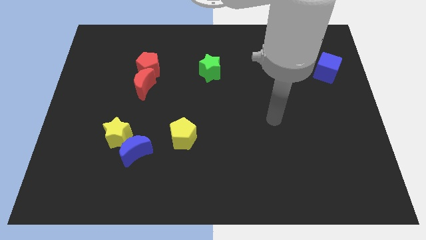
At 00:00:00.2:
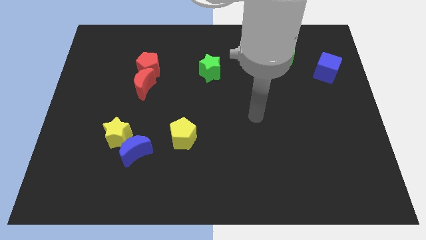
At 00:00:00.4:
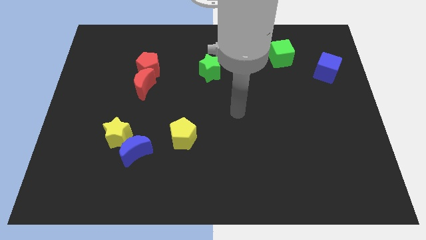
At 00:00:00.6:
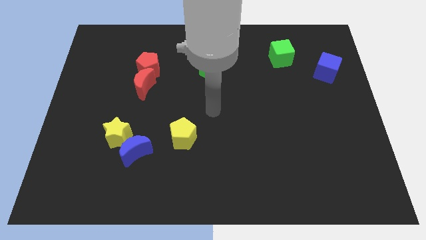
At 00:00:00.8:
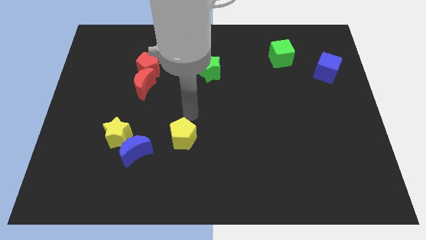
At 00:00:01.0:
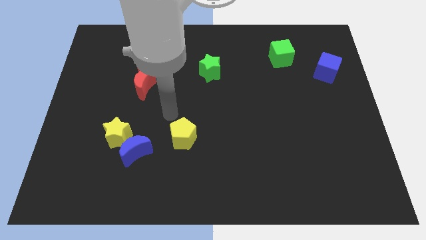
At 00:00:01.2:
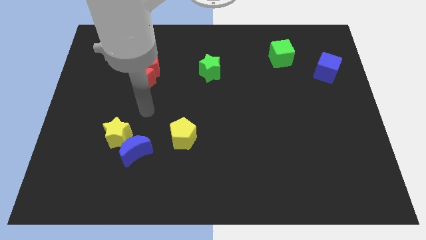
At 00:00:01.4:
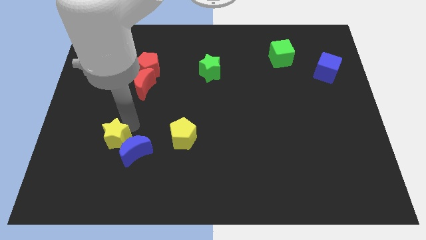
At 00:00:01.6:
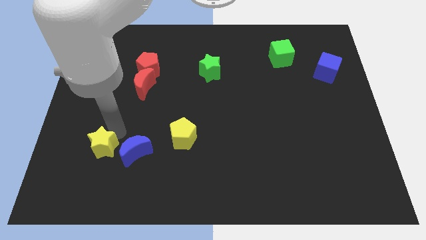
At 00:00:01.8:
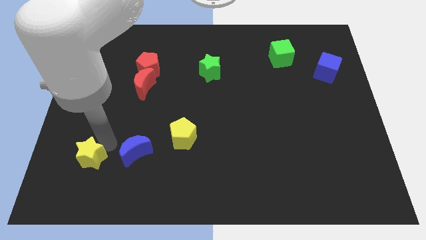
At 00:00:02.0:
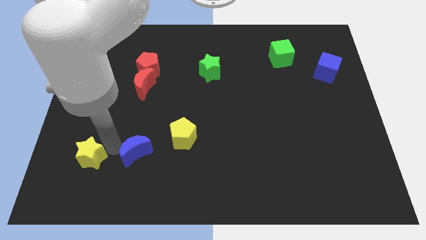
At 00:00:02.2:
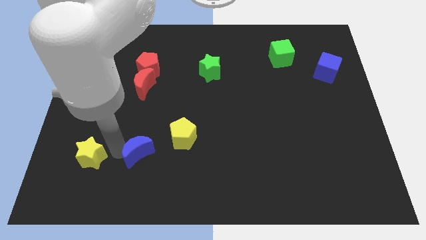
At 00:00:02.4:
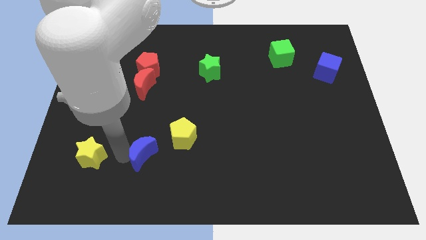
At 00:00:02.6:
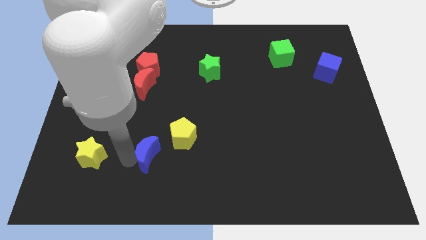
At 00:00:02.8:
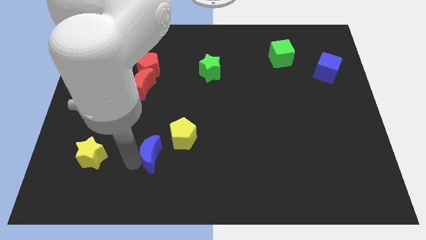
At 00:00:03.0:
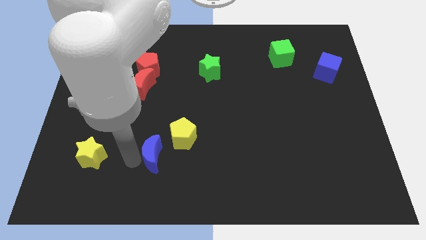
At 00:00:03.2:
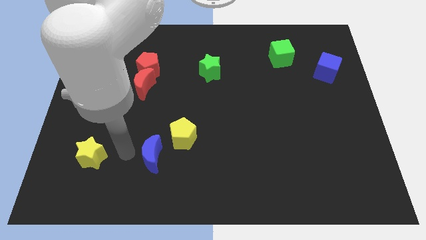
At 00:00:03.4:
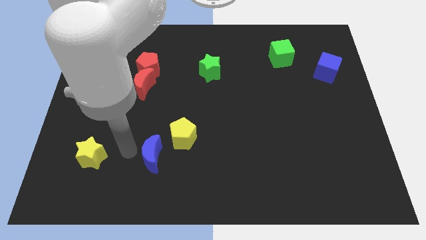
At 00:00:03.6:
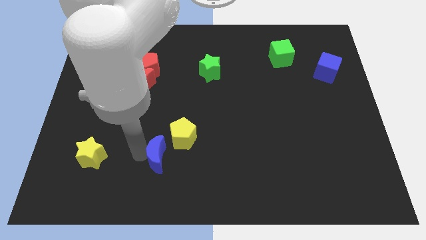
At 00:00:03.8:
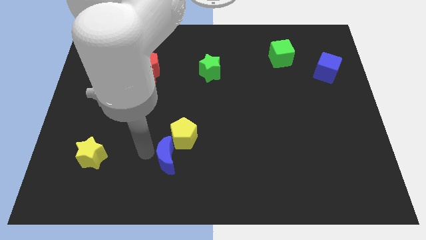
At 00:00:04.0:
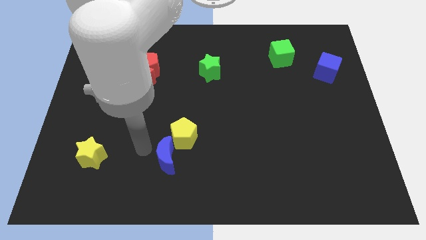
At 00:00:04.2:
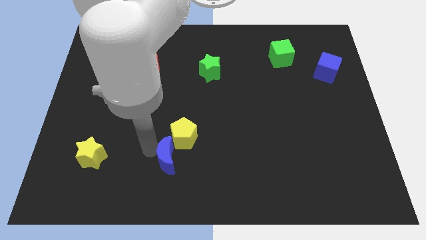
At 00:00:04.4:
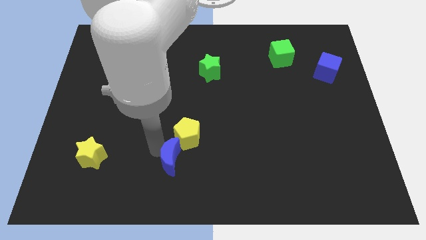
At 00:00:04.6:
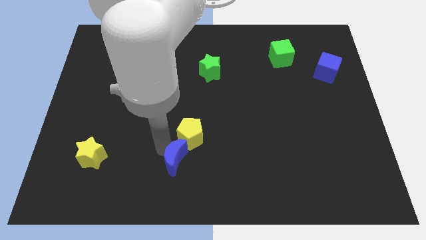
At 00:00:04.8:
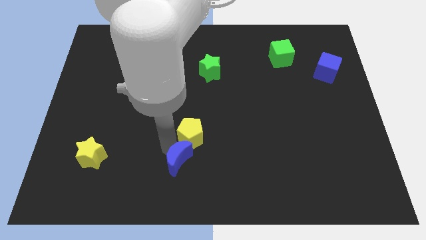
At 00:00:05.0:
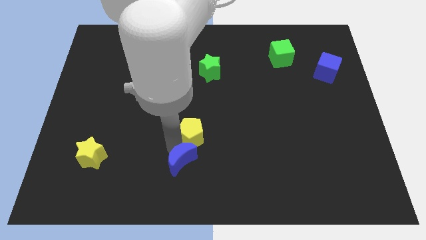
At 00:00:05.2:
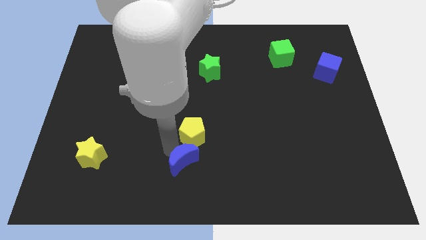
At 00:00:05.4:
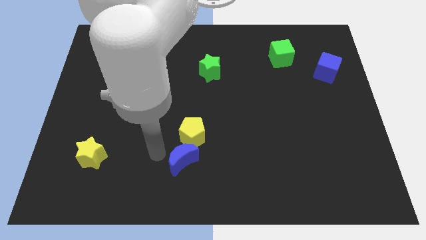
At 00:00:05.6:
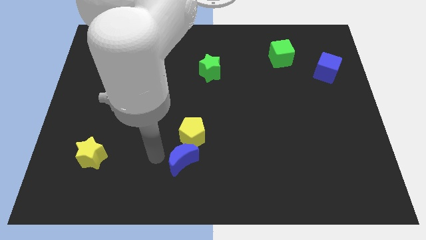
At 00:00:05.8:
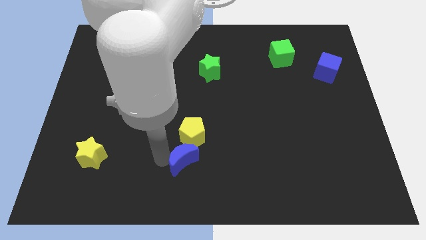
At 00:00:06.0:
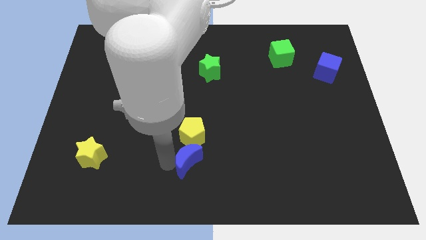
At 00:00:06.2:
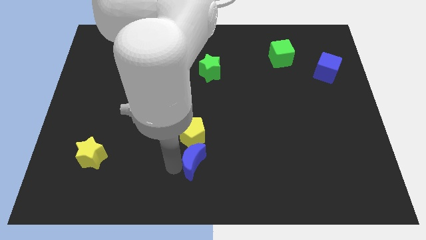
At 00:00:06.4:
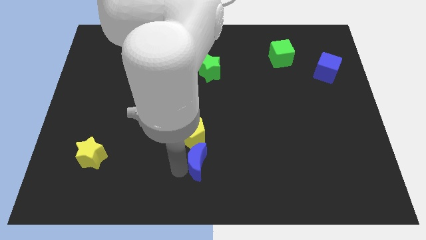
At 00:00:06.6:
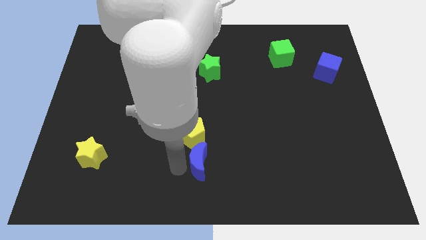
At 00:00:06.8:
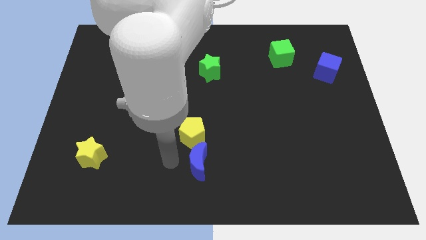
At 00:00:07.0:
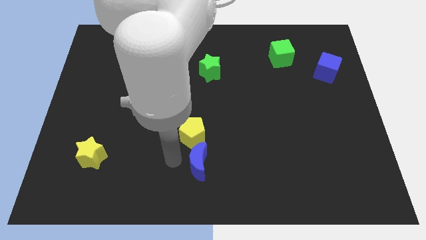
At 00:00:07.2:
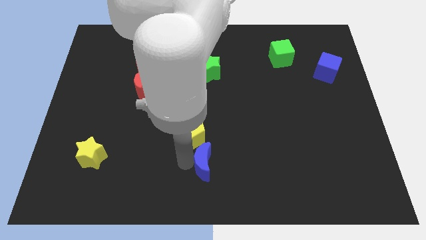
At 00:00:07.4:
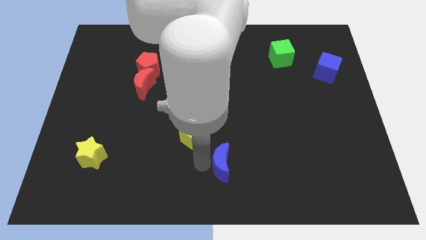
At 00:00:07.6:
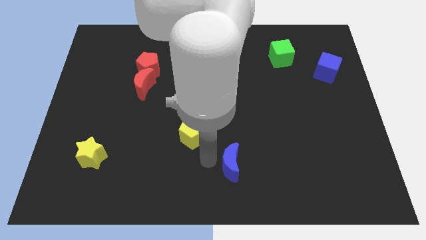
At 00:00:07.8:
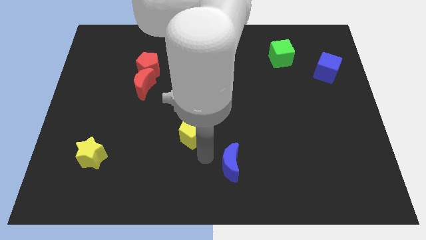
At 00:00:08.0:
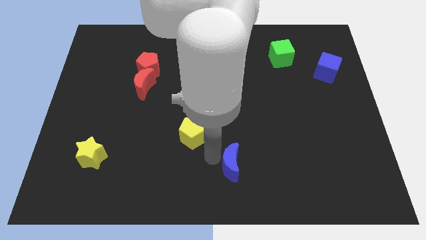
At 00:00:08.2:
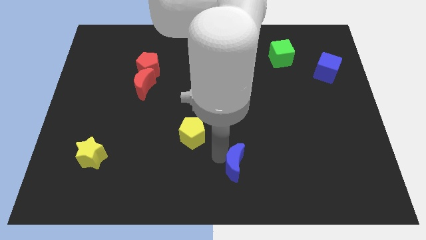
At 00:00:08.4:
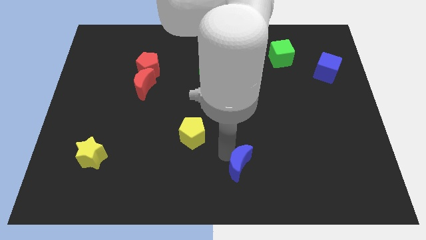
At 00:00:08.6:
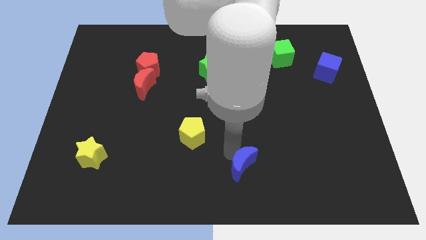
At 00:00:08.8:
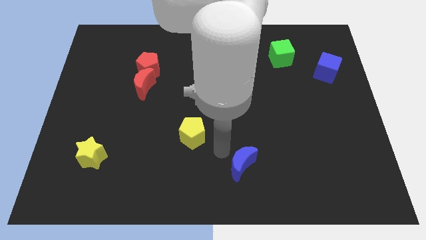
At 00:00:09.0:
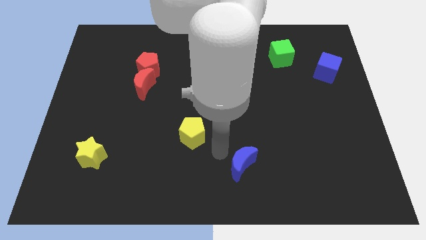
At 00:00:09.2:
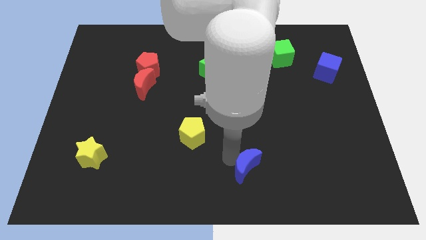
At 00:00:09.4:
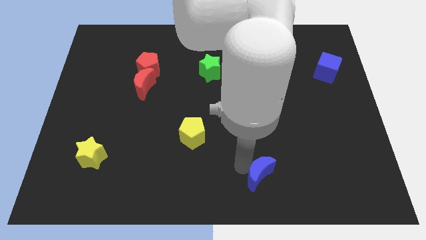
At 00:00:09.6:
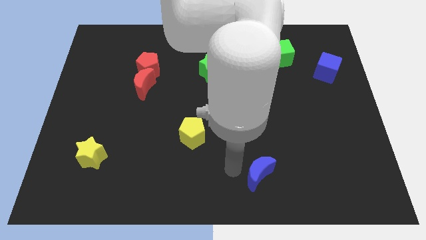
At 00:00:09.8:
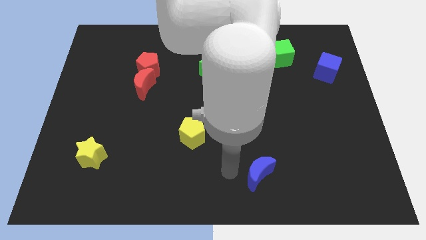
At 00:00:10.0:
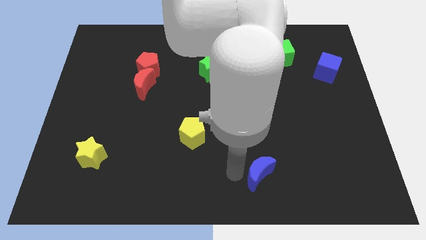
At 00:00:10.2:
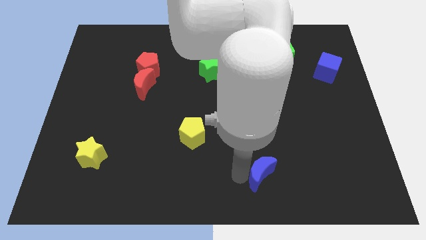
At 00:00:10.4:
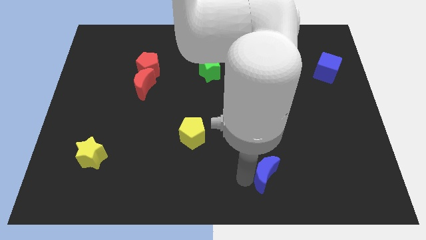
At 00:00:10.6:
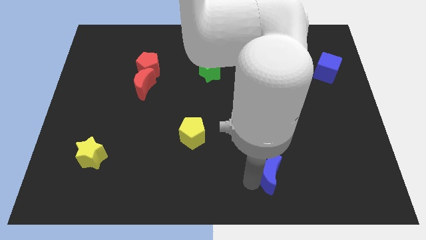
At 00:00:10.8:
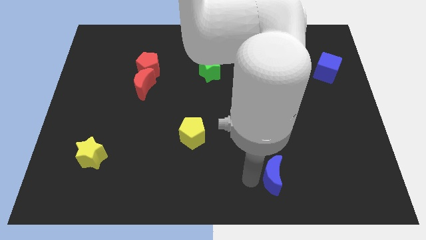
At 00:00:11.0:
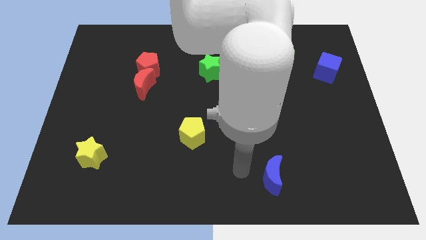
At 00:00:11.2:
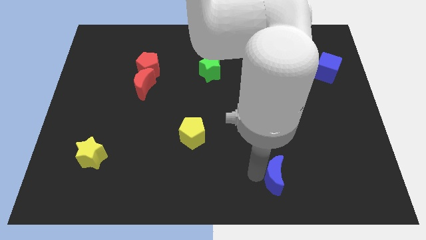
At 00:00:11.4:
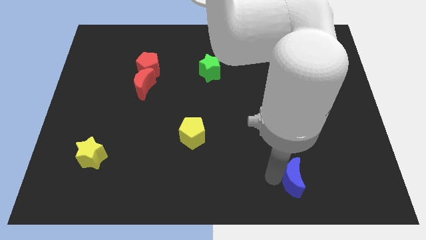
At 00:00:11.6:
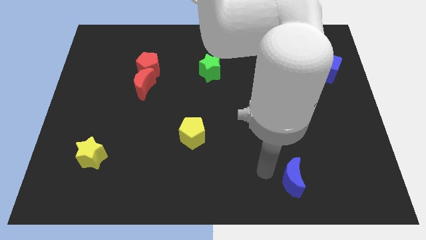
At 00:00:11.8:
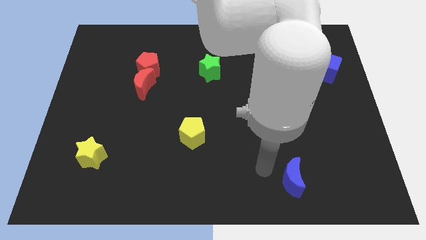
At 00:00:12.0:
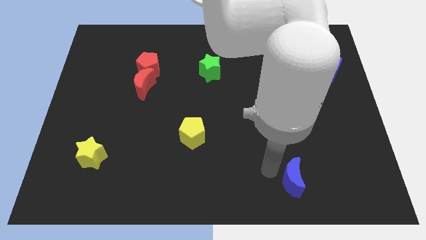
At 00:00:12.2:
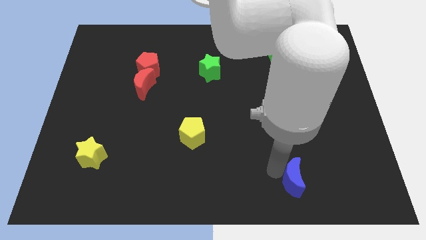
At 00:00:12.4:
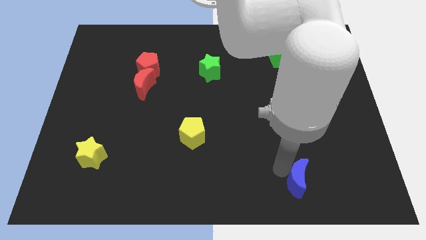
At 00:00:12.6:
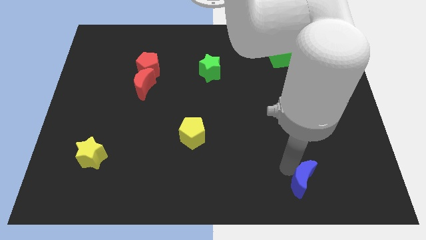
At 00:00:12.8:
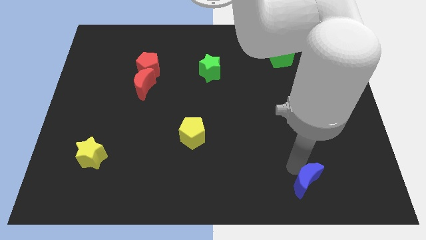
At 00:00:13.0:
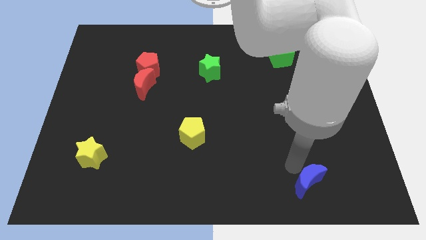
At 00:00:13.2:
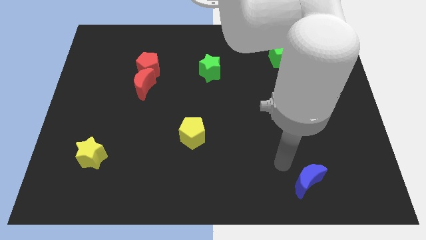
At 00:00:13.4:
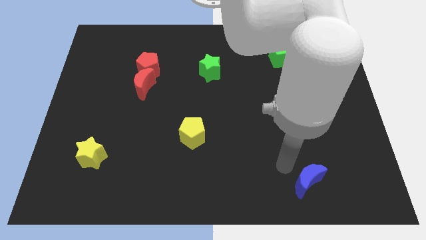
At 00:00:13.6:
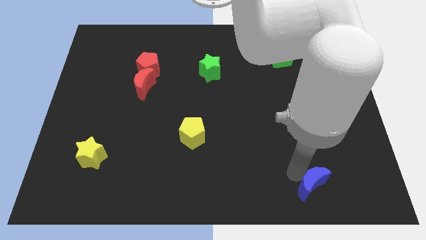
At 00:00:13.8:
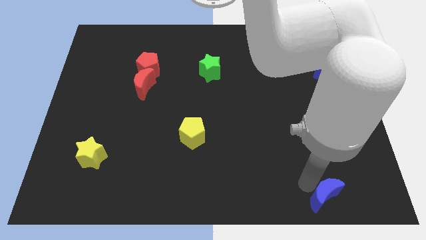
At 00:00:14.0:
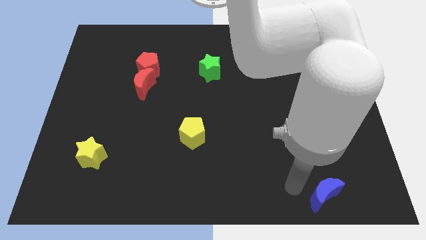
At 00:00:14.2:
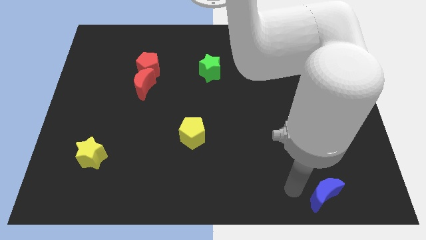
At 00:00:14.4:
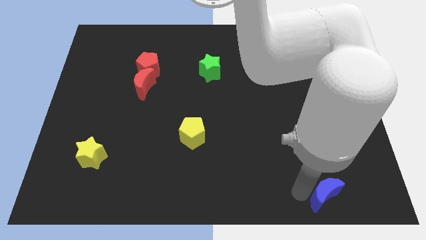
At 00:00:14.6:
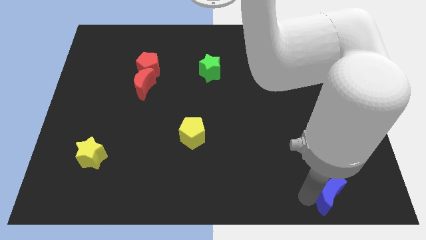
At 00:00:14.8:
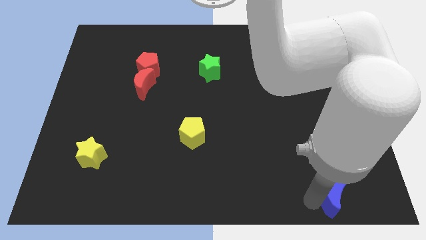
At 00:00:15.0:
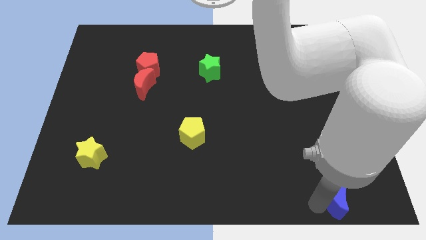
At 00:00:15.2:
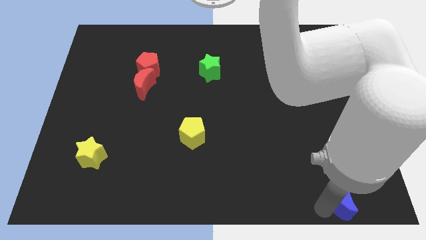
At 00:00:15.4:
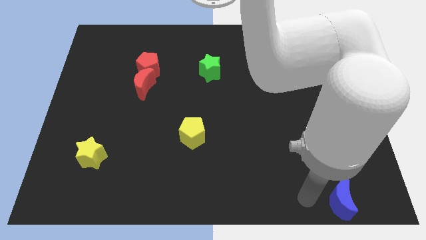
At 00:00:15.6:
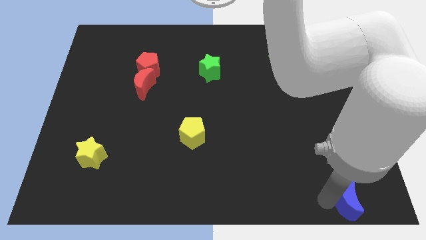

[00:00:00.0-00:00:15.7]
push the blue moon to the bottom right of the board
